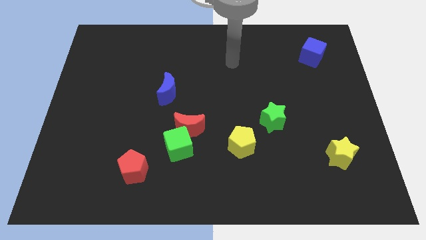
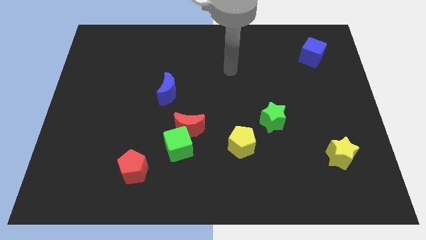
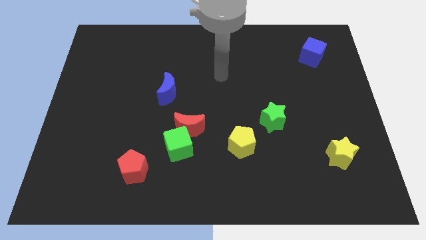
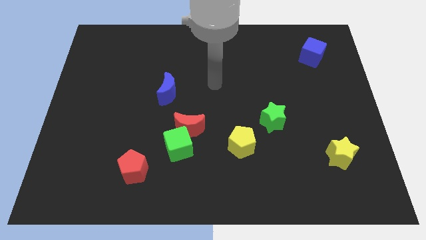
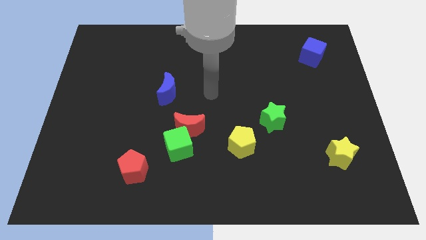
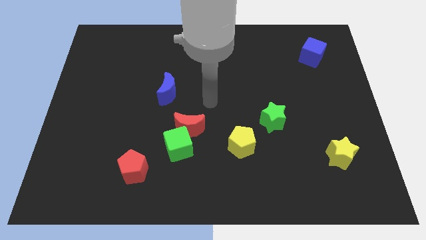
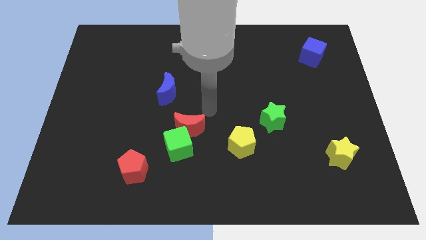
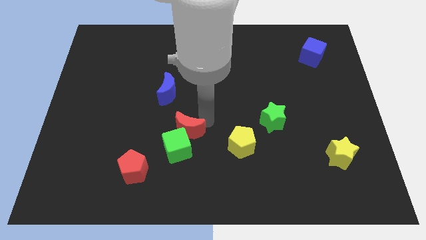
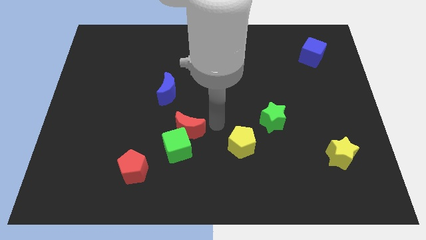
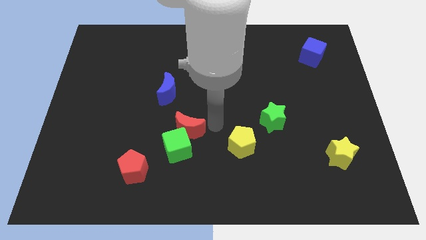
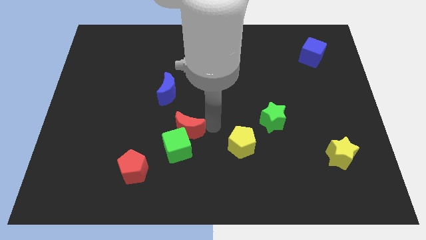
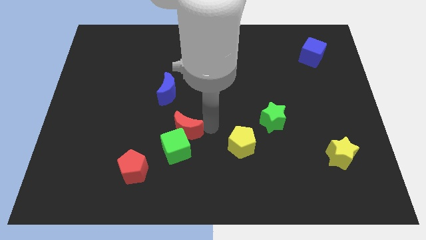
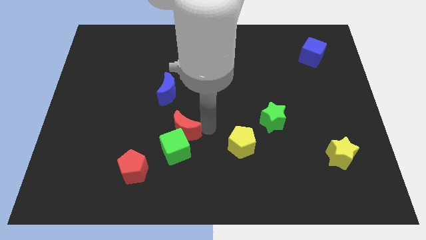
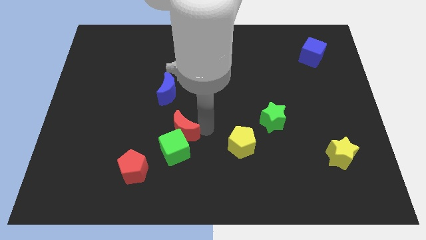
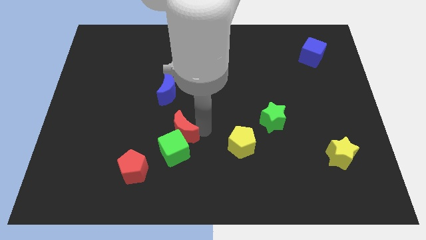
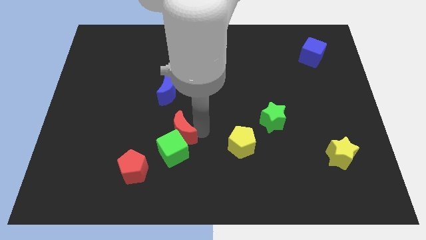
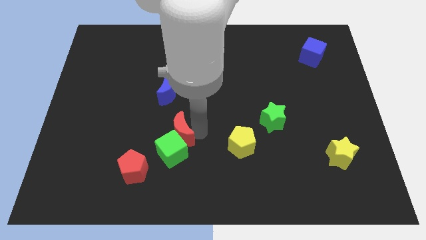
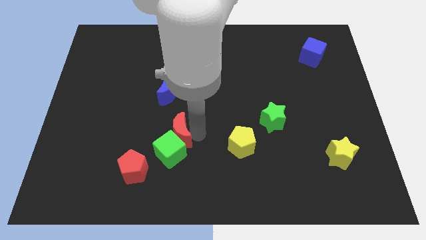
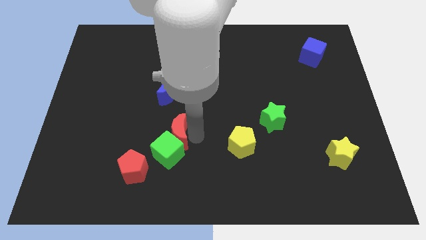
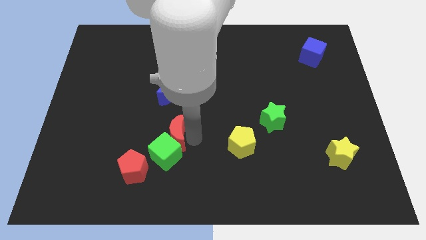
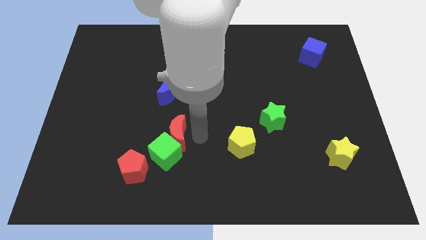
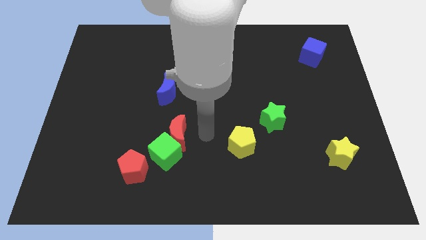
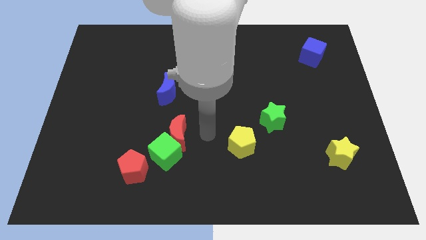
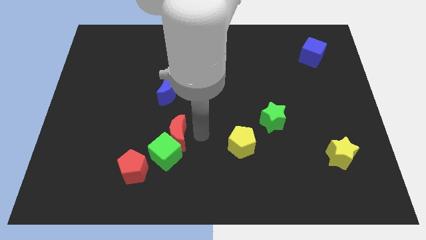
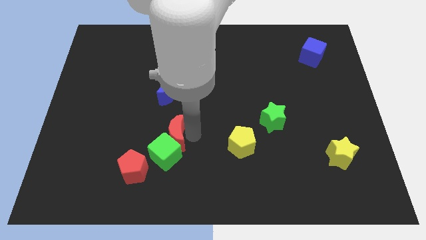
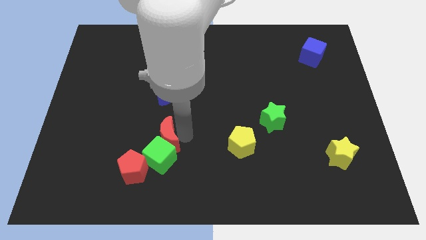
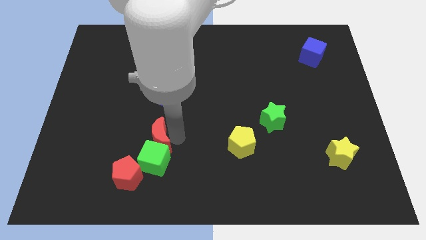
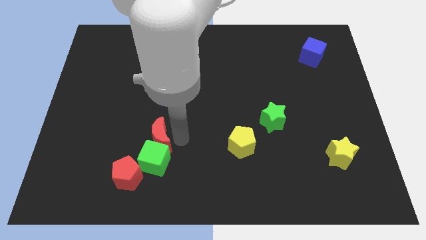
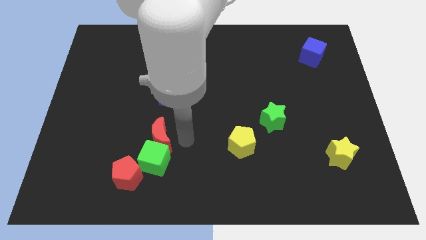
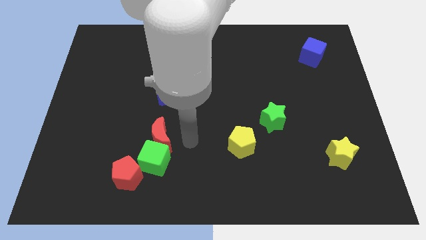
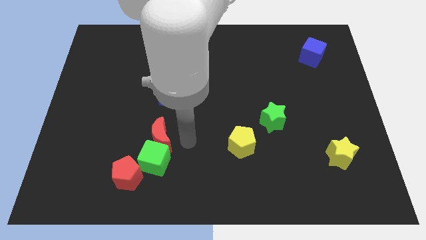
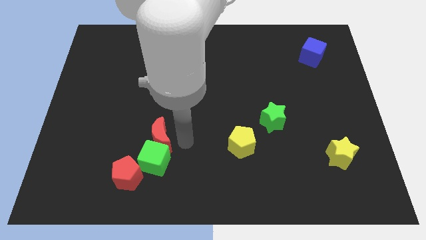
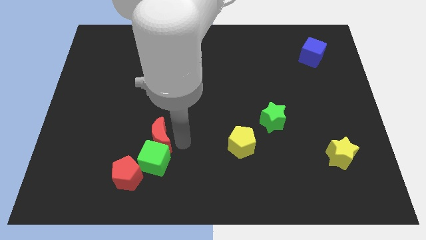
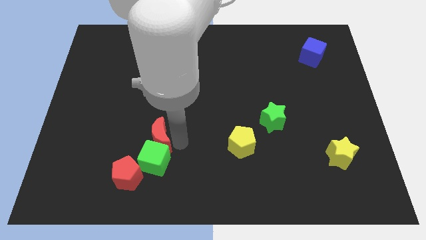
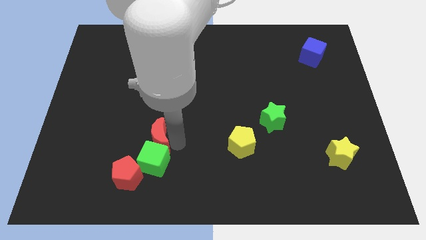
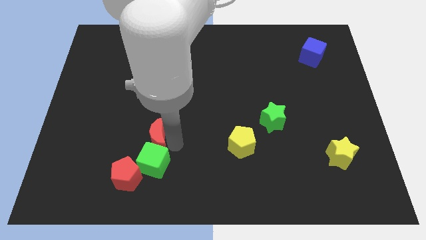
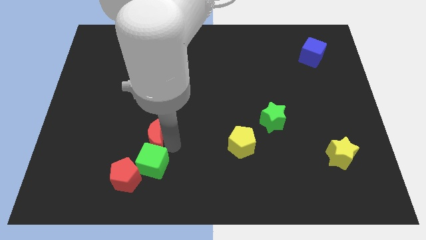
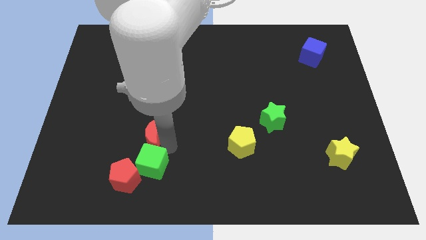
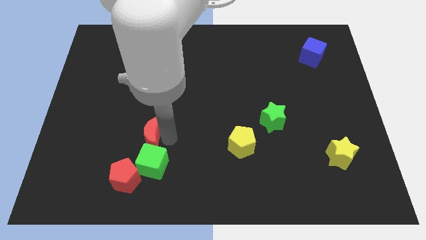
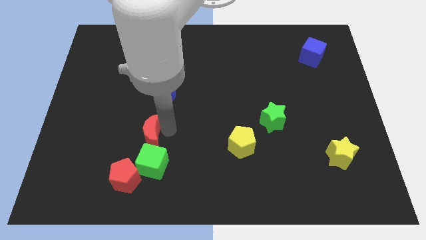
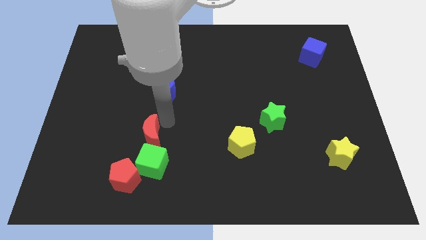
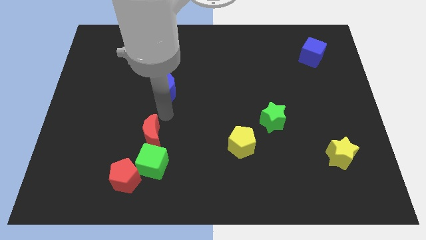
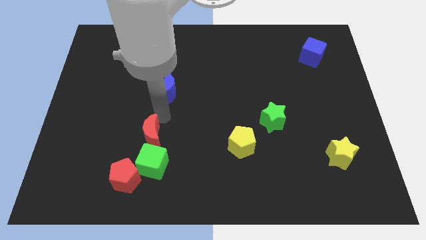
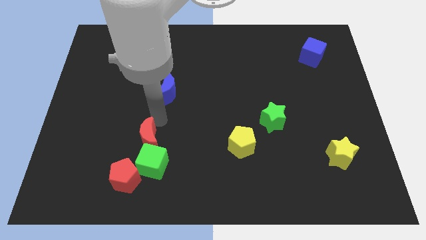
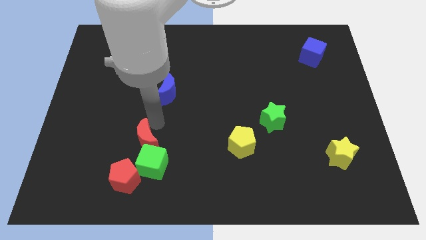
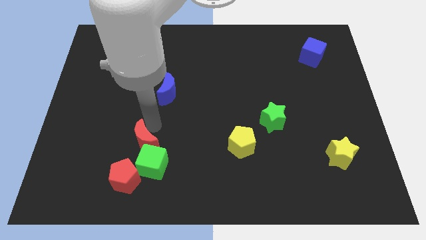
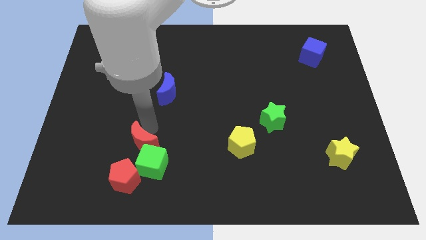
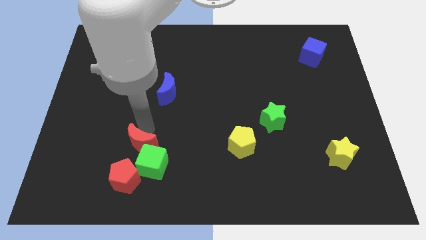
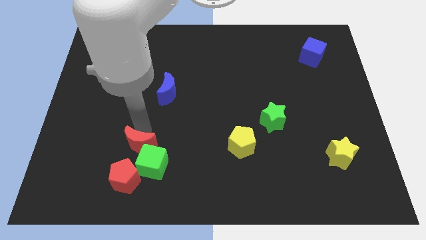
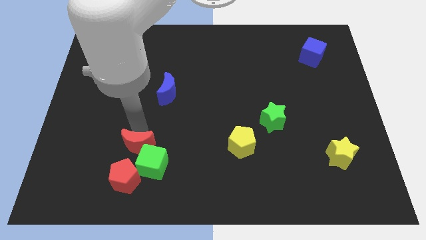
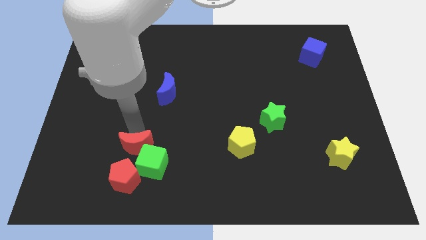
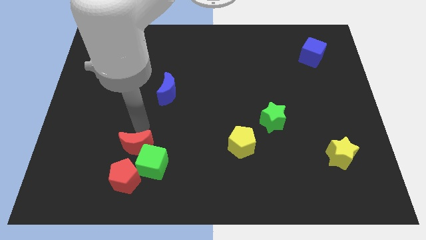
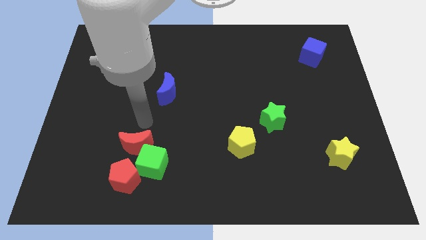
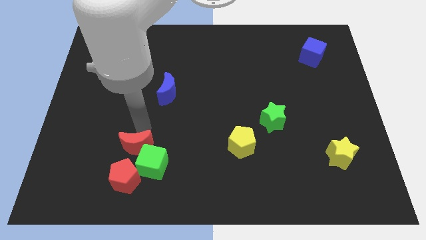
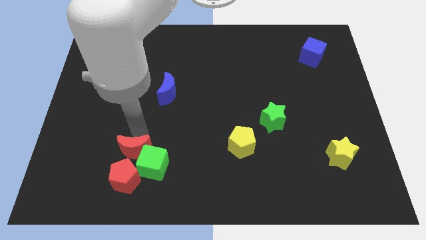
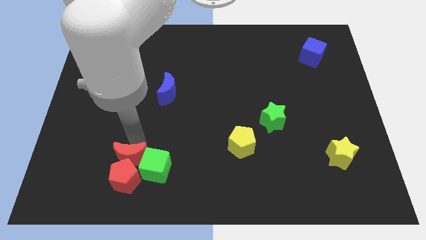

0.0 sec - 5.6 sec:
slide the red moon next to the red pentagon

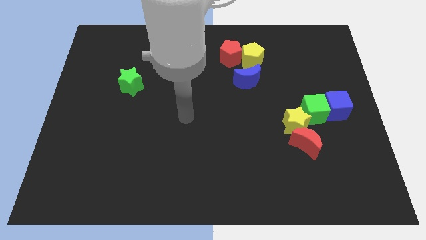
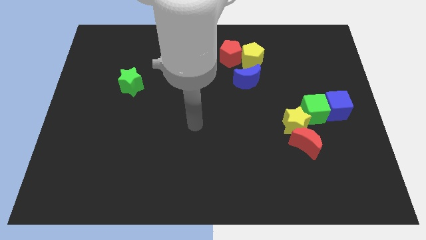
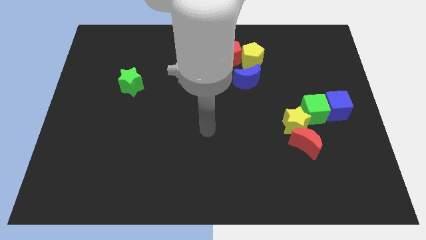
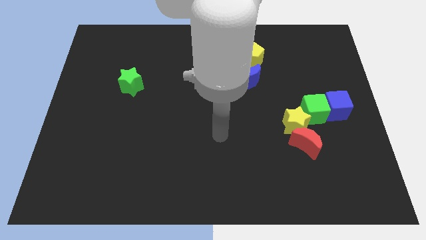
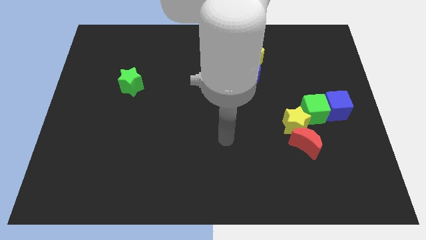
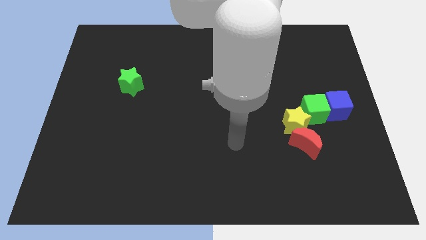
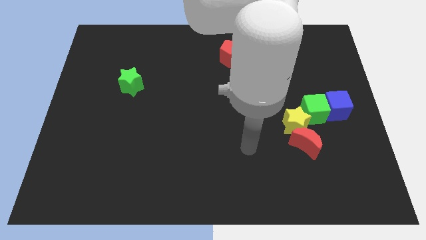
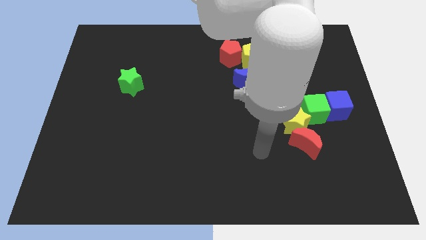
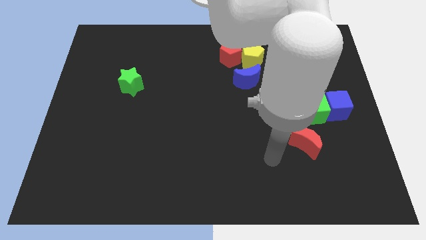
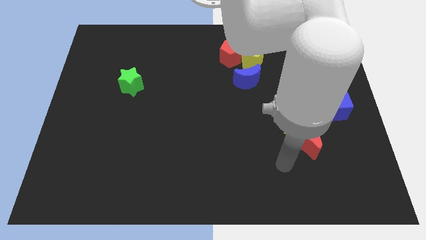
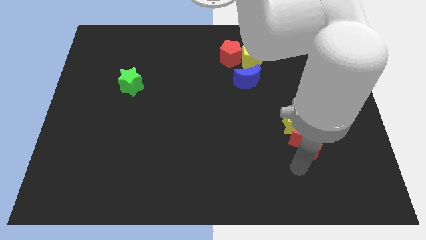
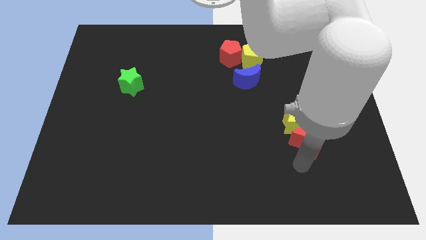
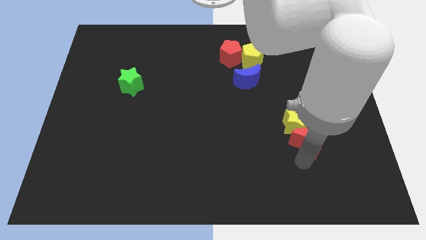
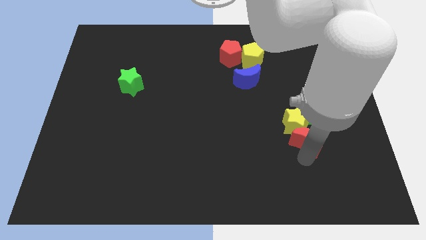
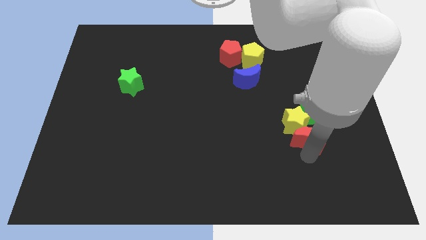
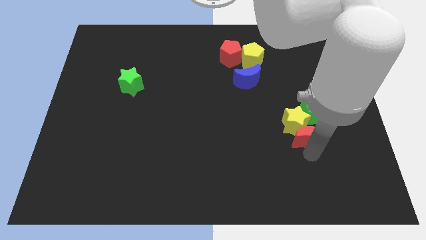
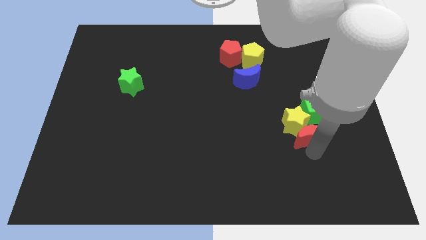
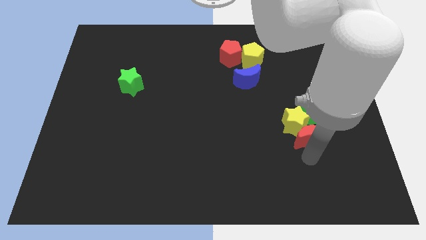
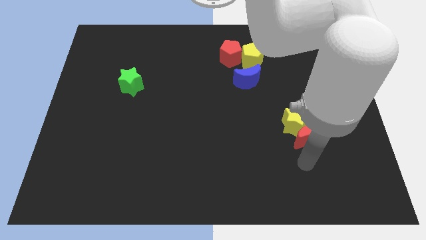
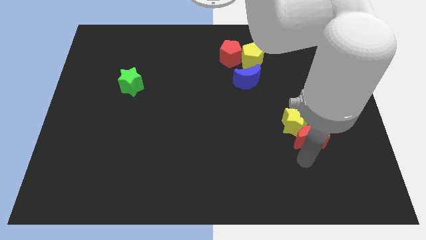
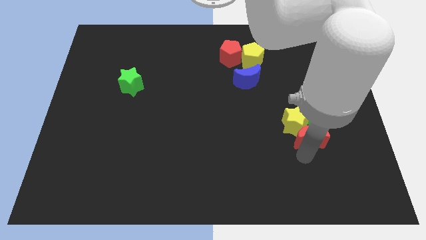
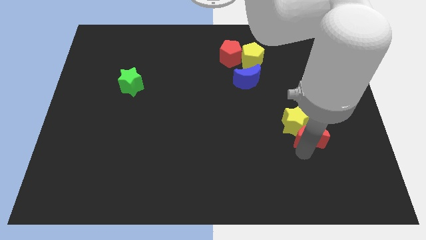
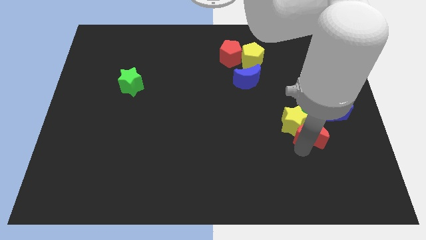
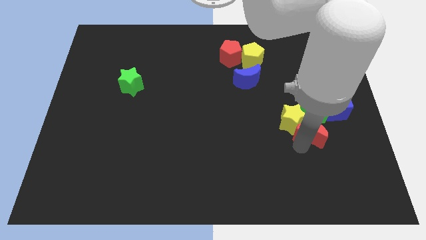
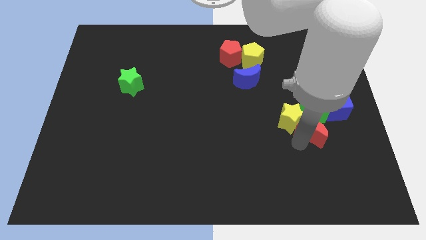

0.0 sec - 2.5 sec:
push the red moon to the green cube
